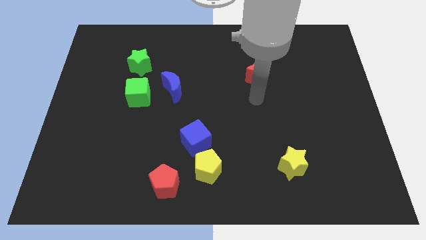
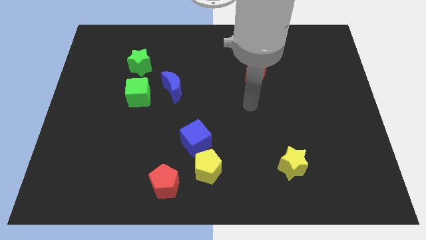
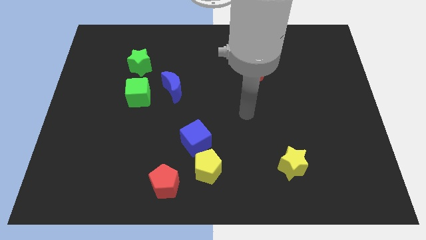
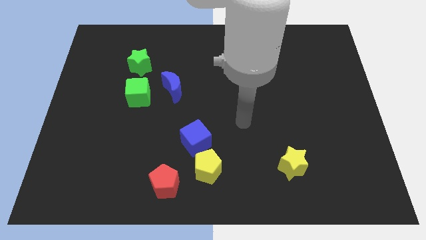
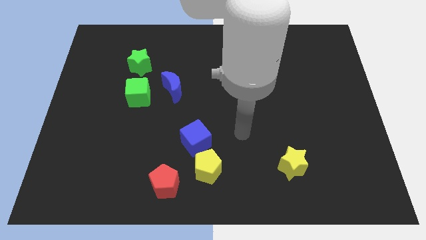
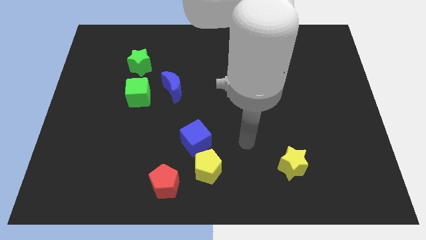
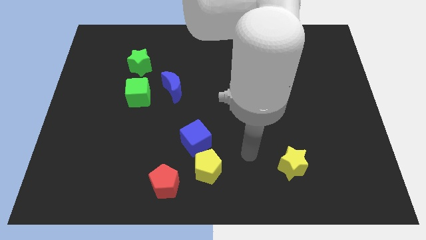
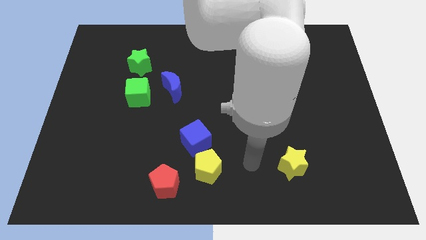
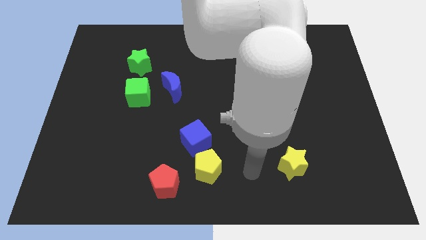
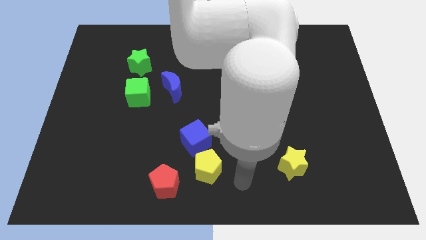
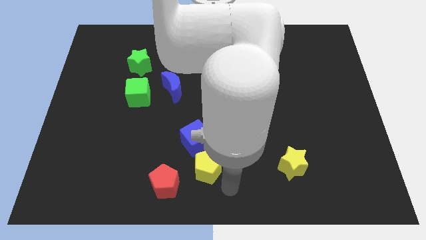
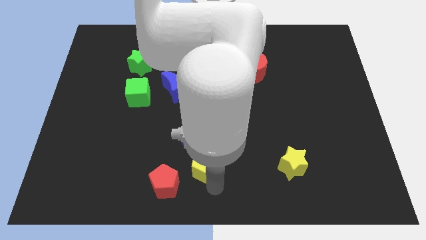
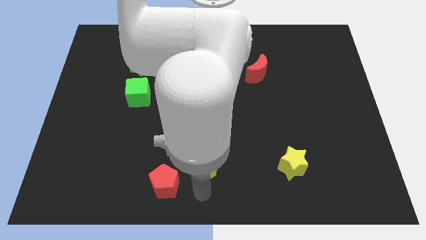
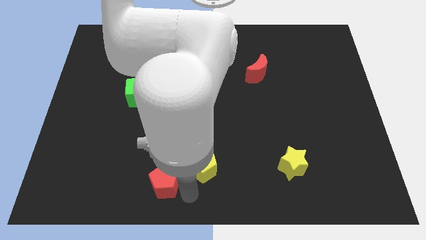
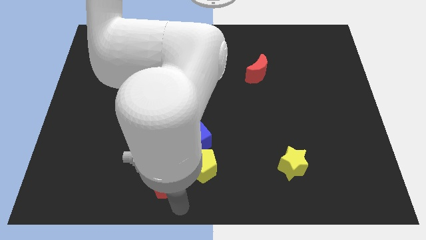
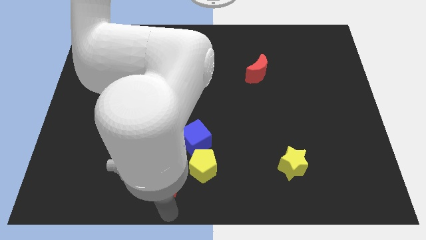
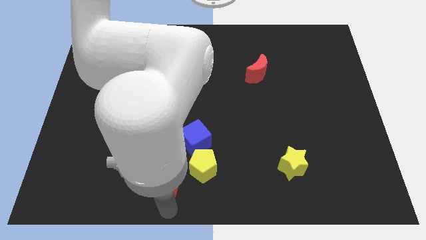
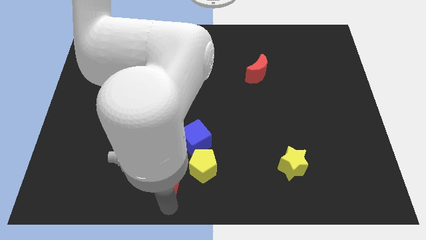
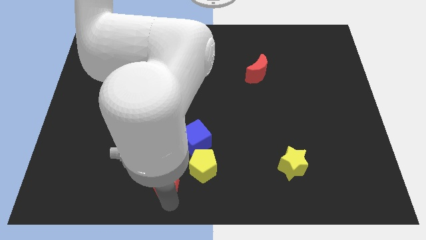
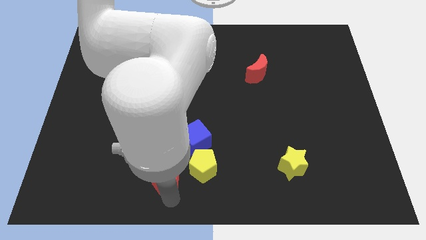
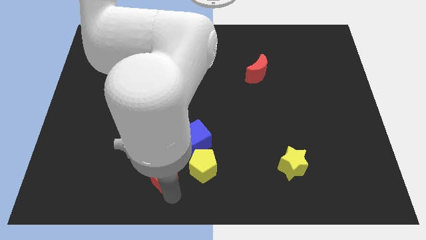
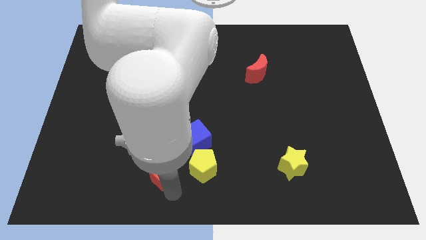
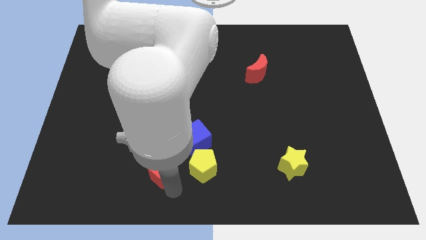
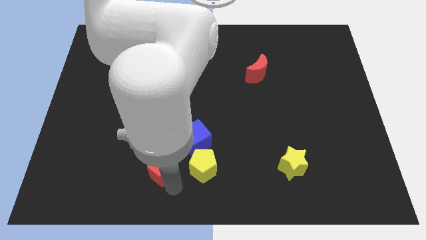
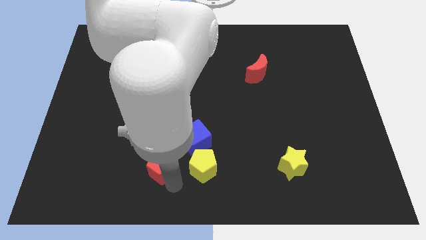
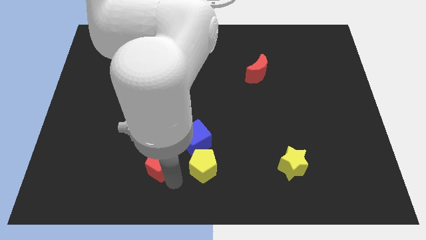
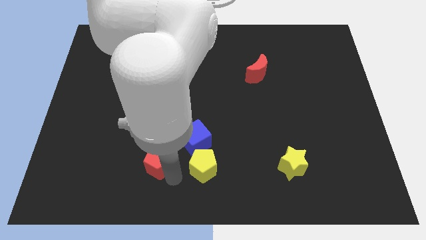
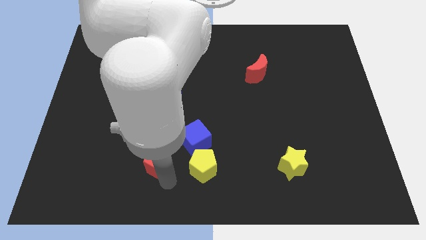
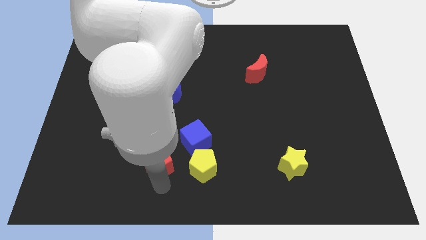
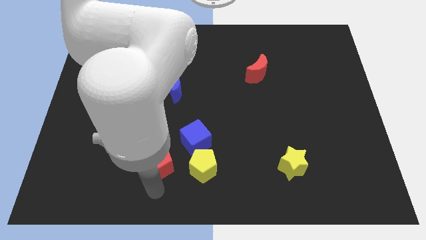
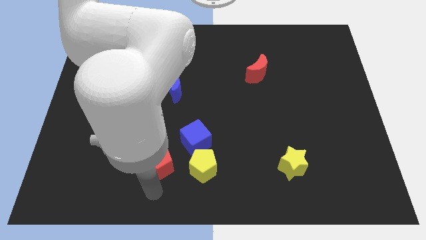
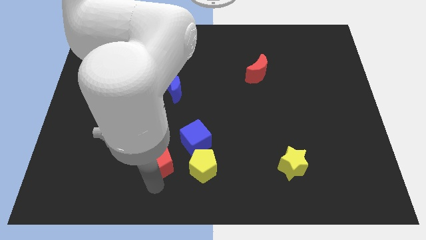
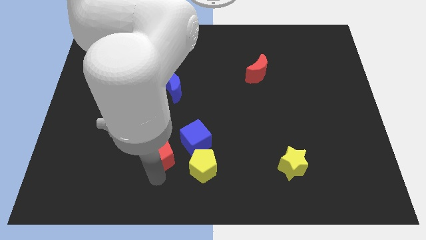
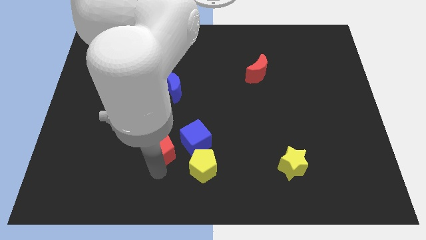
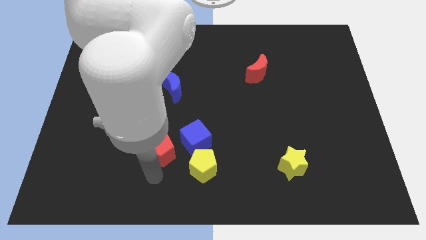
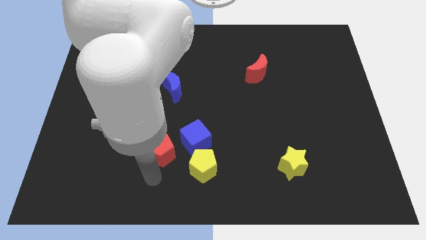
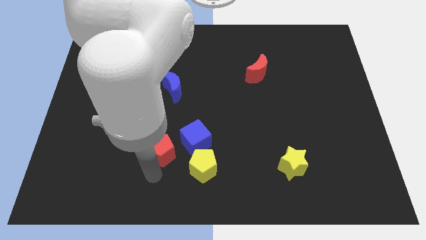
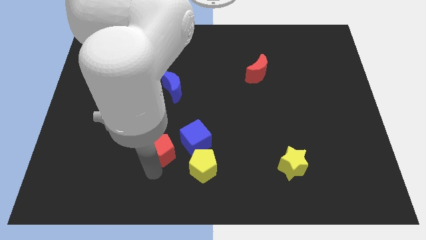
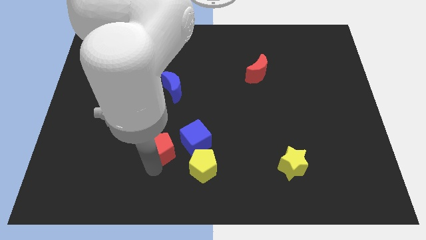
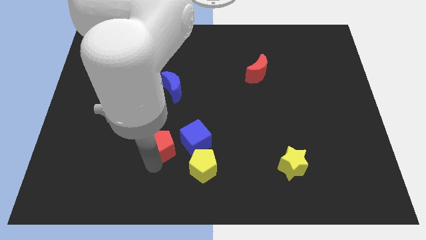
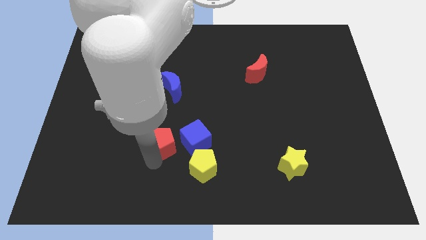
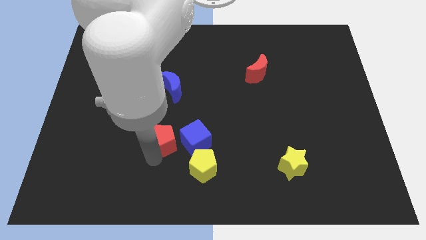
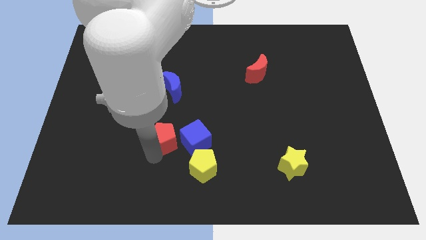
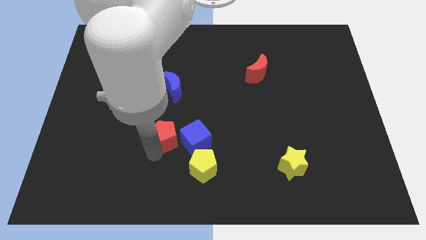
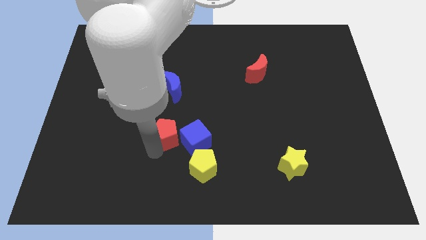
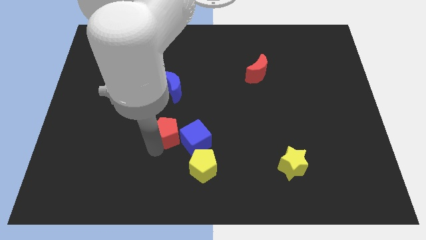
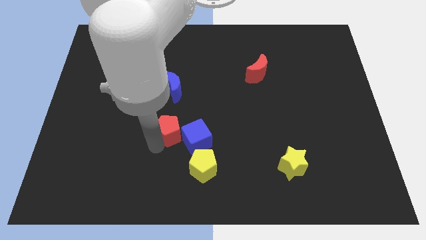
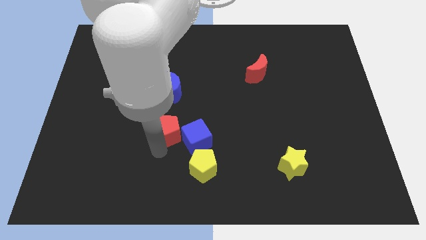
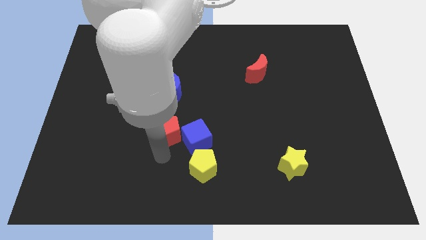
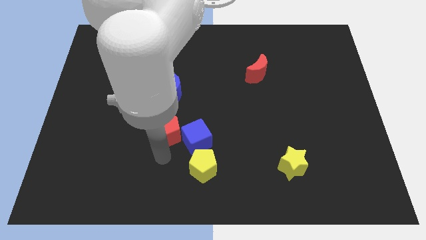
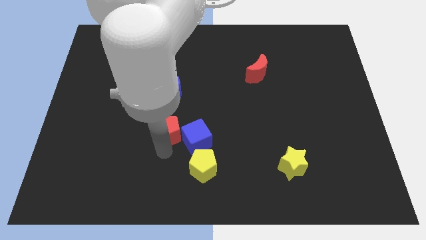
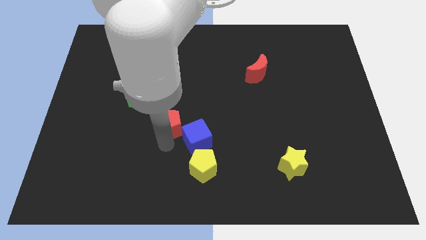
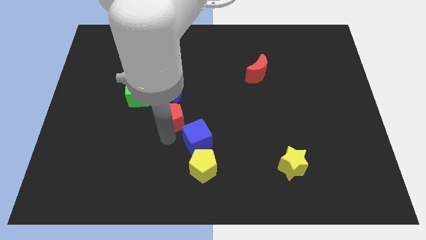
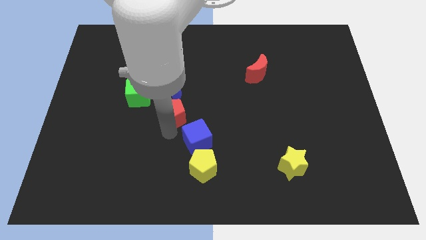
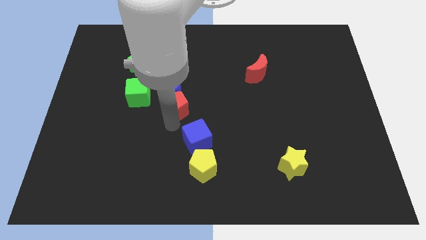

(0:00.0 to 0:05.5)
put the red pentagon next to the blue moon

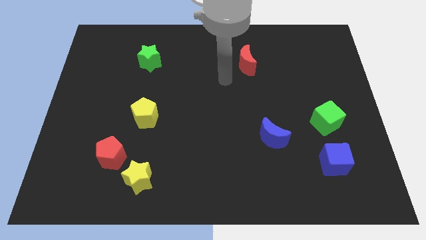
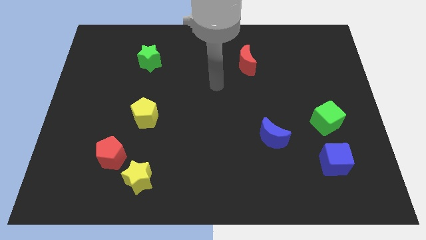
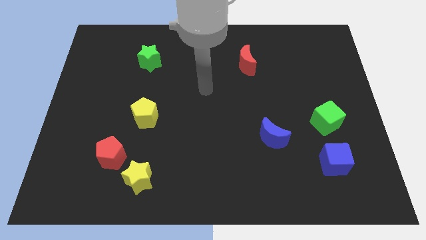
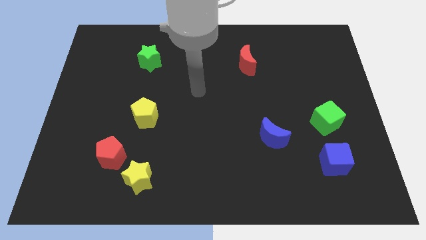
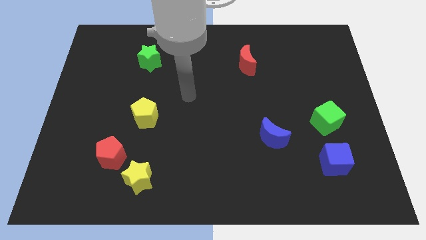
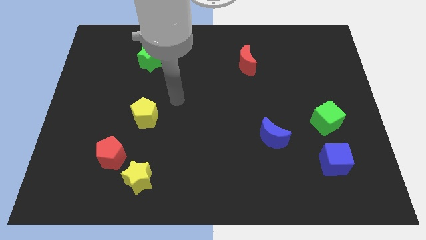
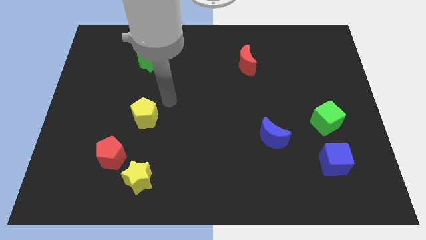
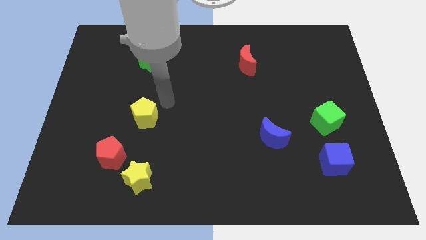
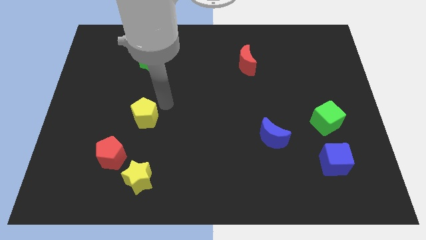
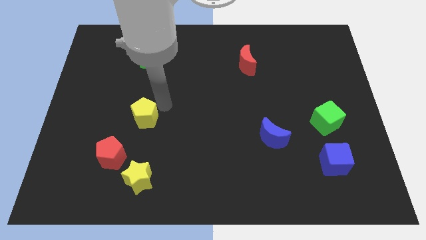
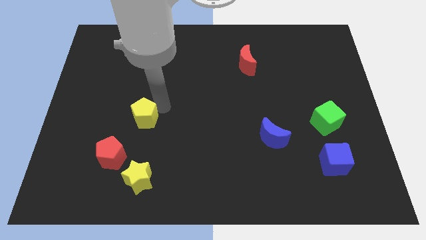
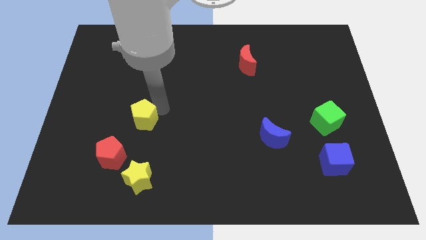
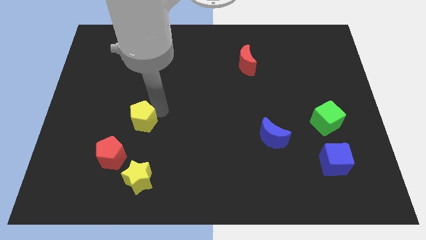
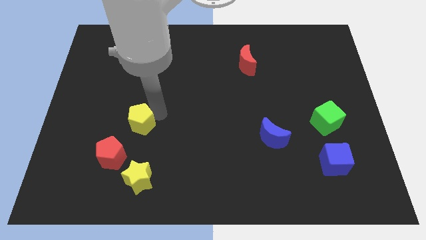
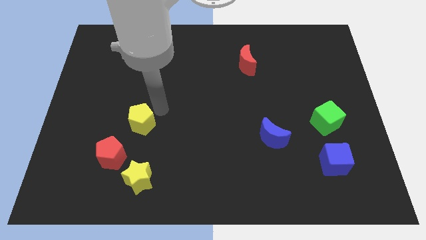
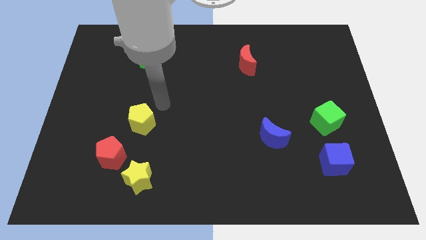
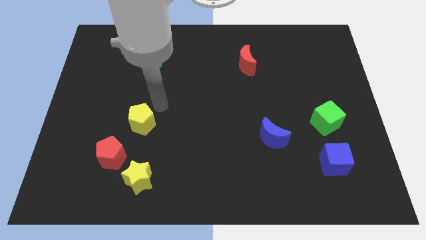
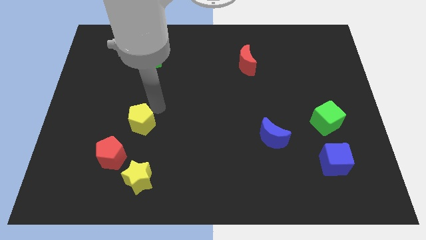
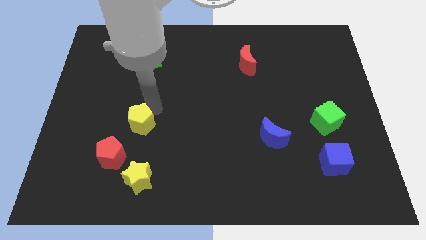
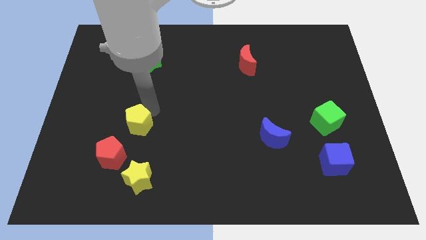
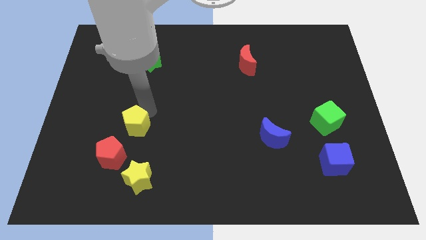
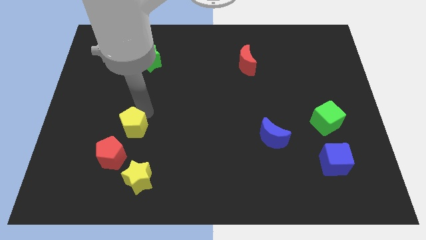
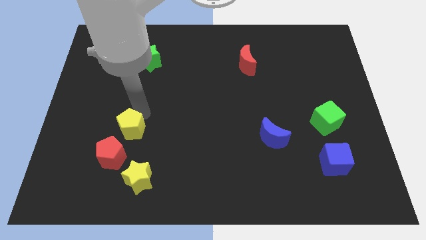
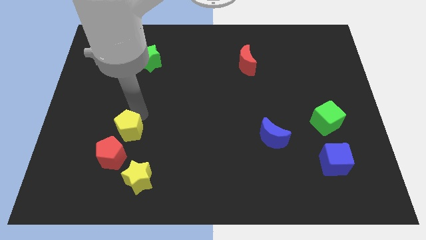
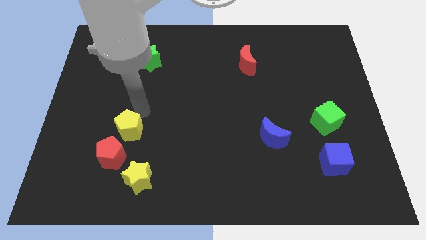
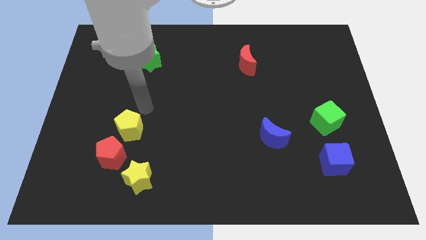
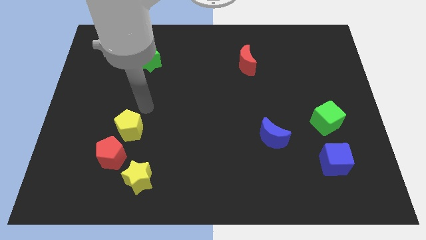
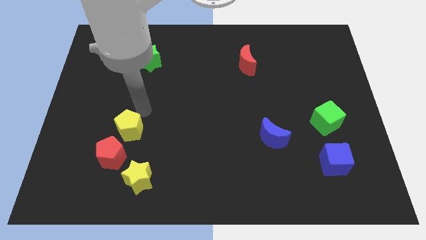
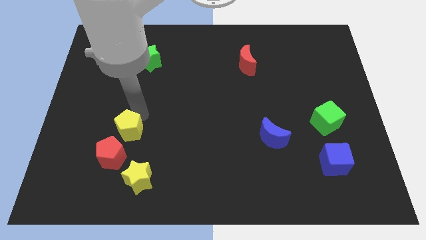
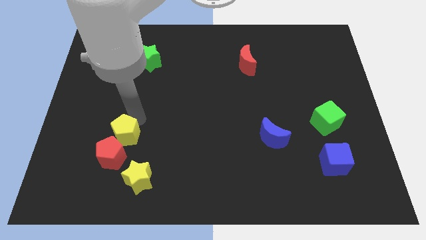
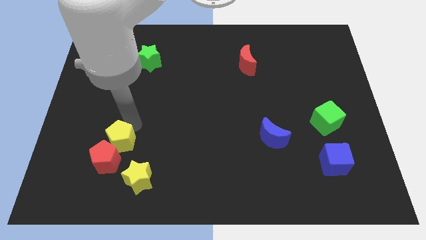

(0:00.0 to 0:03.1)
put the yellow pentagon close to the red pentagon
